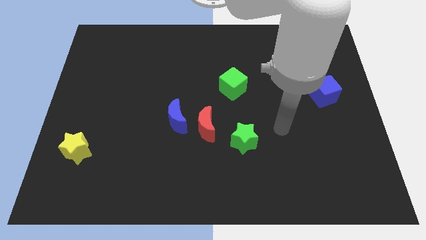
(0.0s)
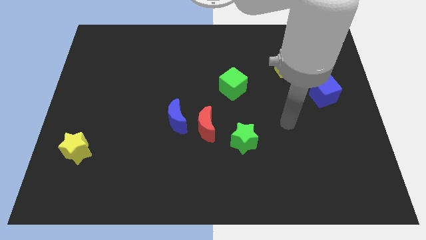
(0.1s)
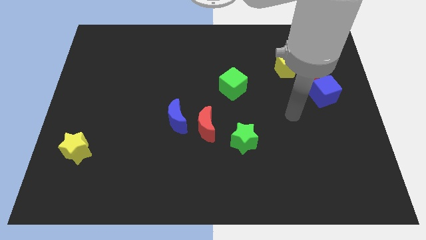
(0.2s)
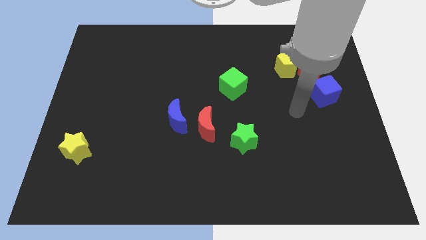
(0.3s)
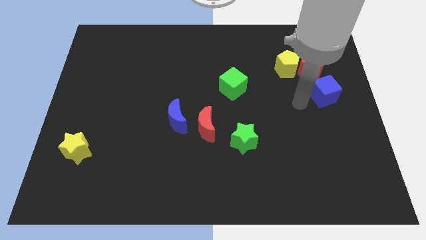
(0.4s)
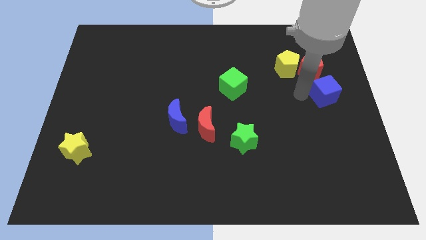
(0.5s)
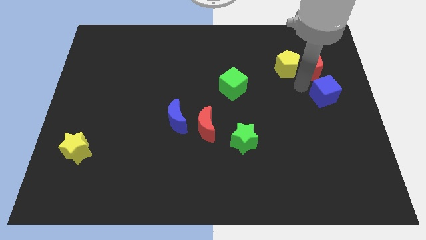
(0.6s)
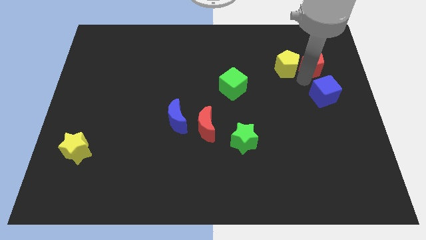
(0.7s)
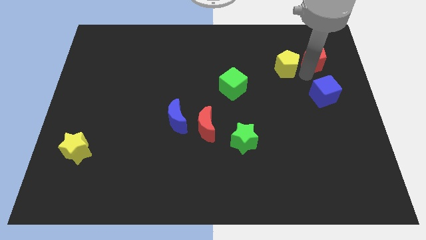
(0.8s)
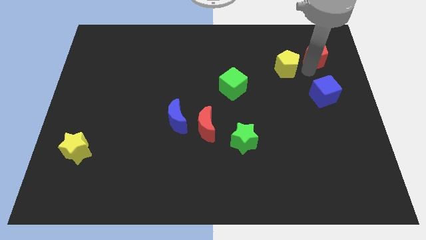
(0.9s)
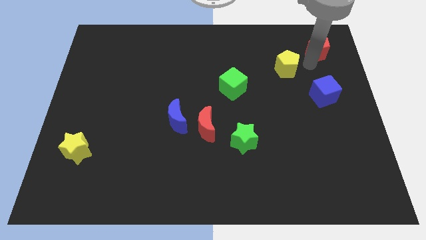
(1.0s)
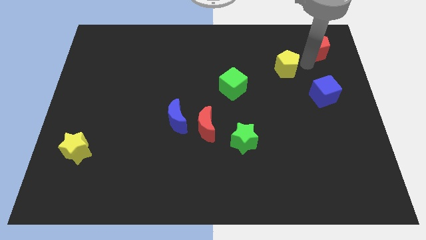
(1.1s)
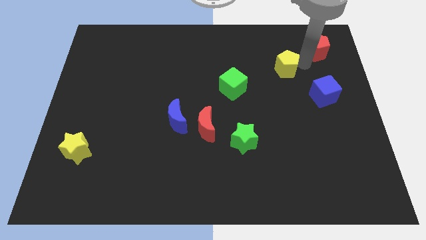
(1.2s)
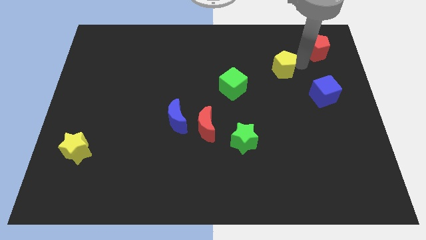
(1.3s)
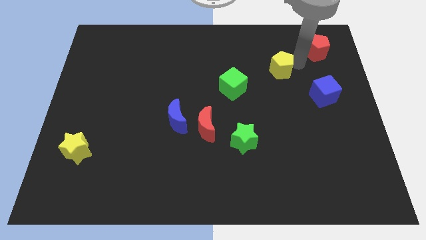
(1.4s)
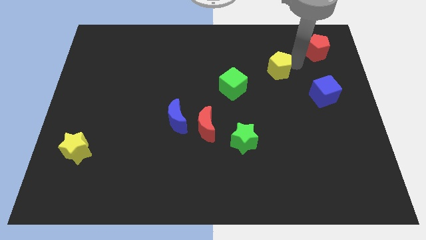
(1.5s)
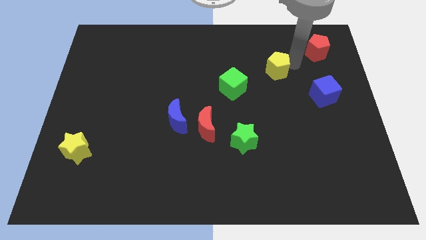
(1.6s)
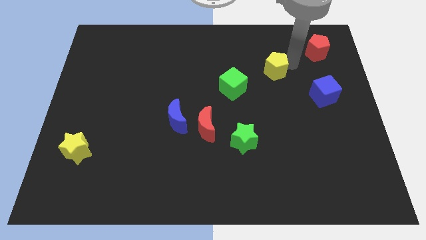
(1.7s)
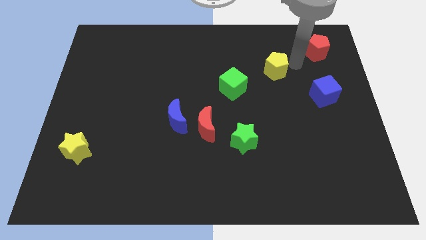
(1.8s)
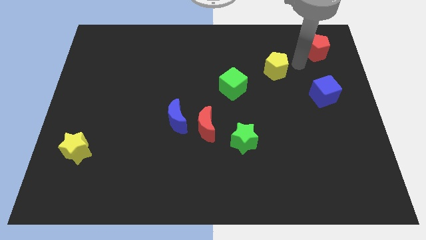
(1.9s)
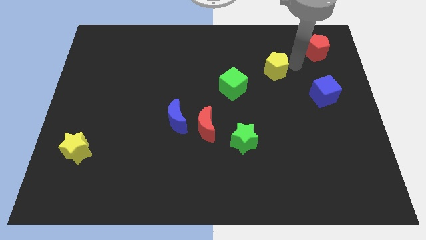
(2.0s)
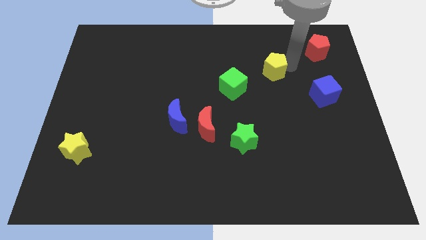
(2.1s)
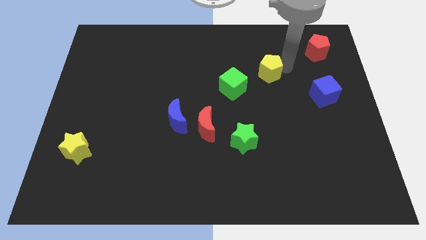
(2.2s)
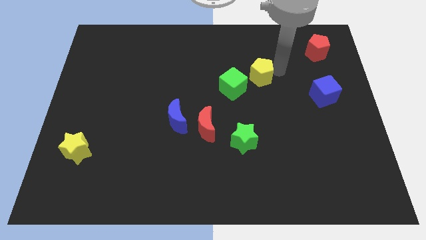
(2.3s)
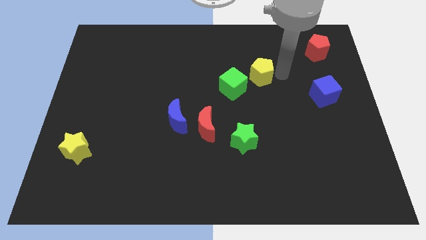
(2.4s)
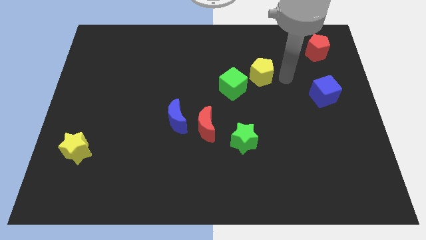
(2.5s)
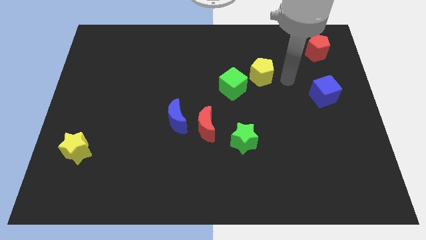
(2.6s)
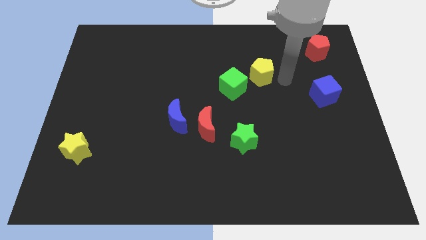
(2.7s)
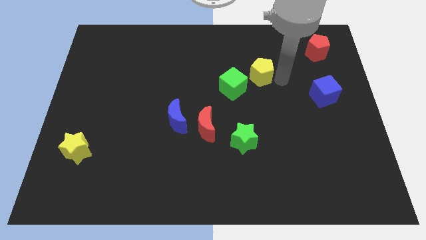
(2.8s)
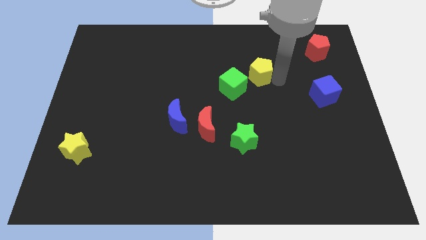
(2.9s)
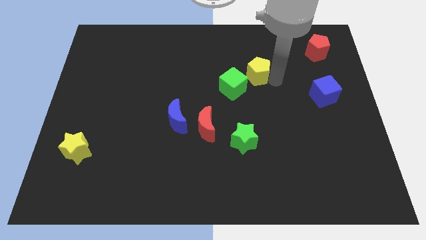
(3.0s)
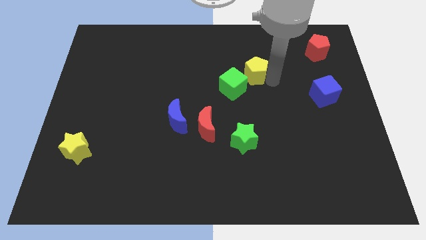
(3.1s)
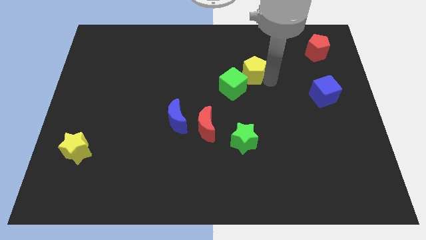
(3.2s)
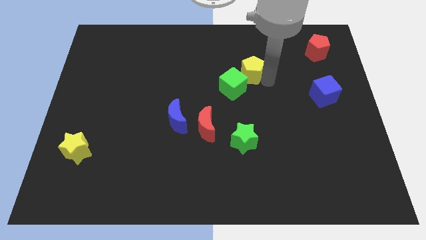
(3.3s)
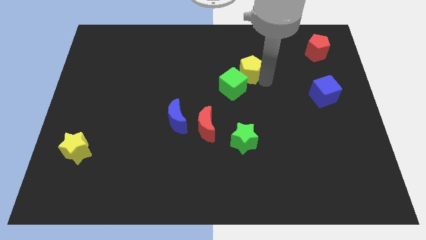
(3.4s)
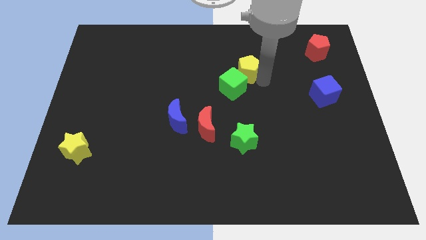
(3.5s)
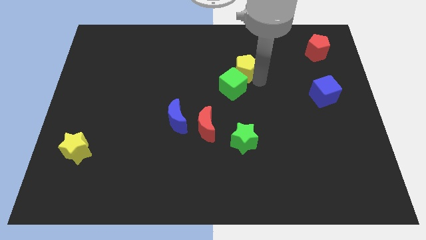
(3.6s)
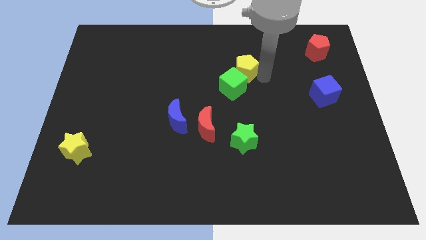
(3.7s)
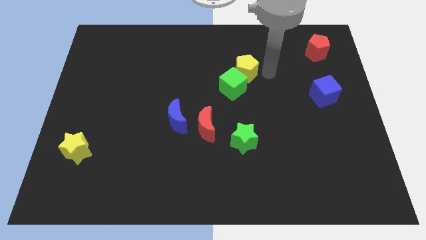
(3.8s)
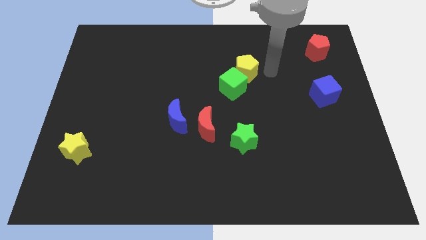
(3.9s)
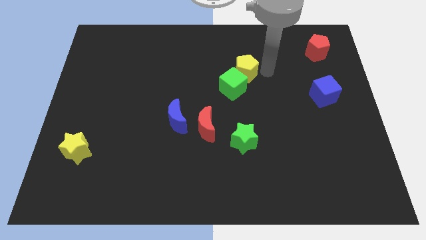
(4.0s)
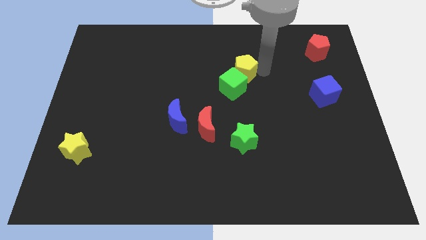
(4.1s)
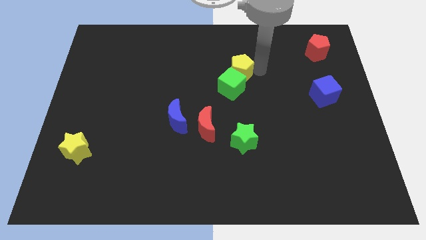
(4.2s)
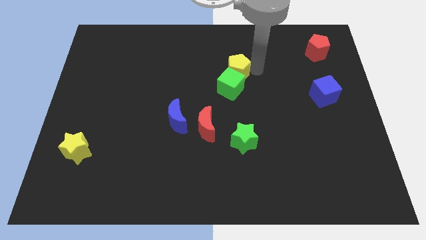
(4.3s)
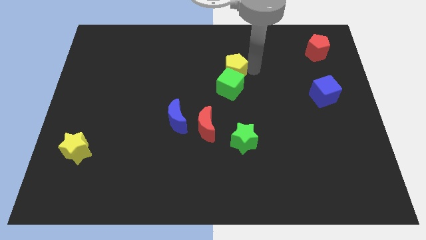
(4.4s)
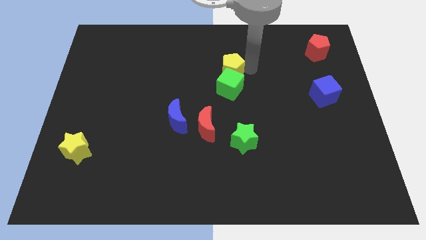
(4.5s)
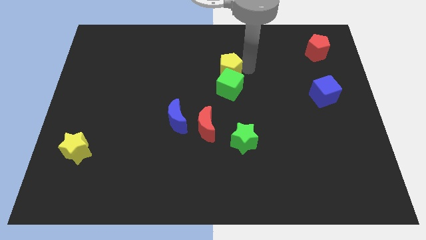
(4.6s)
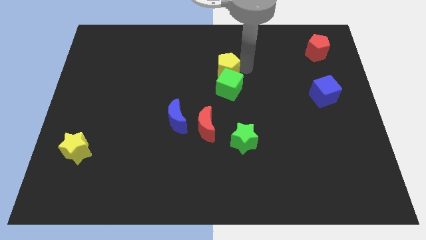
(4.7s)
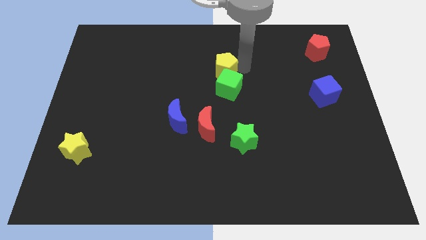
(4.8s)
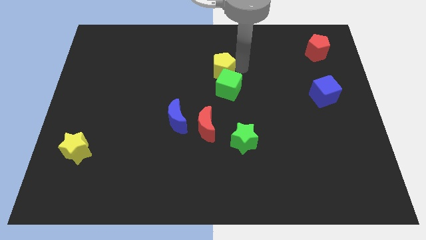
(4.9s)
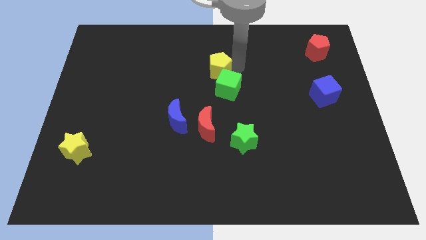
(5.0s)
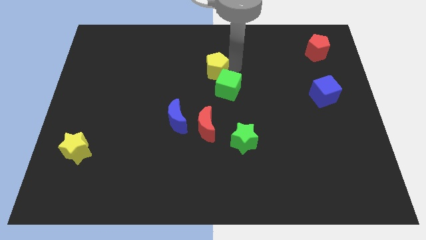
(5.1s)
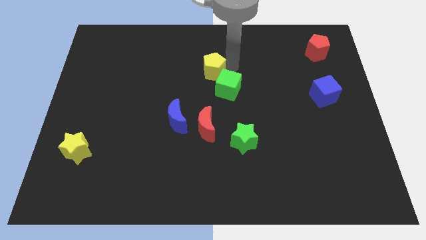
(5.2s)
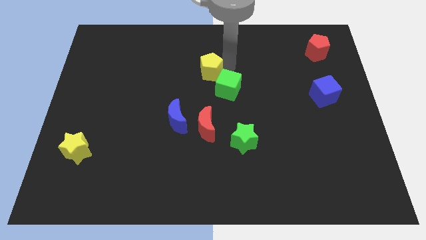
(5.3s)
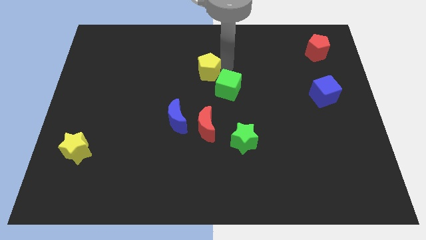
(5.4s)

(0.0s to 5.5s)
push the yellow pentagon left

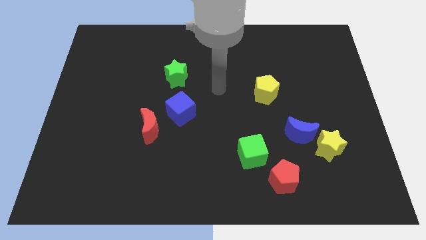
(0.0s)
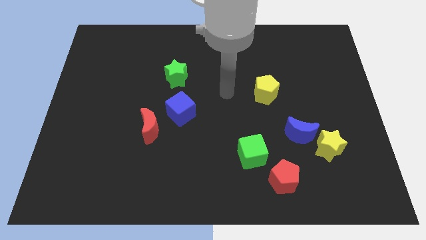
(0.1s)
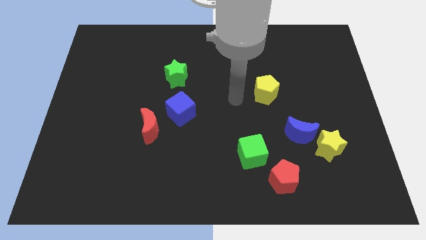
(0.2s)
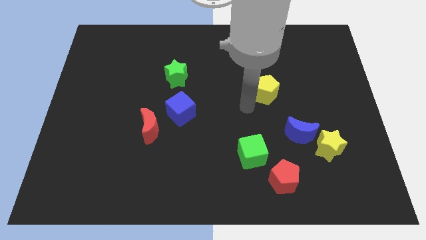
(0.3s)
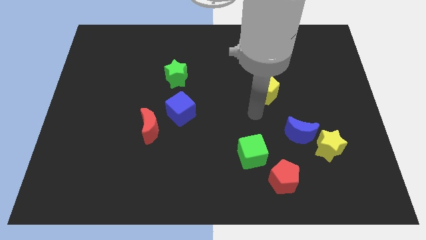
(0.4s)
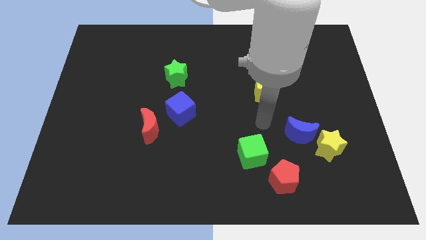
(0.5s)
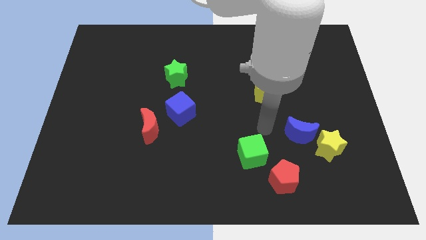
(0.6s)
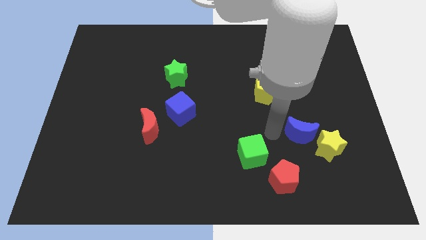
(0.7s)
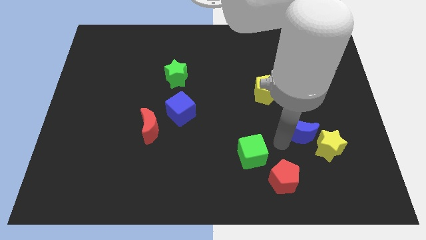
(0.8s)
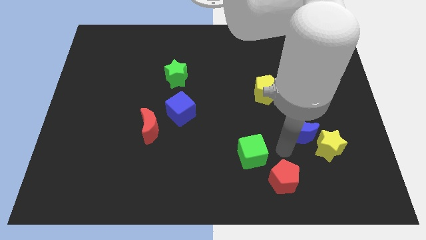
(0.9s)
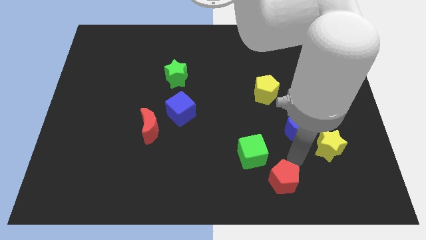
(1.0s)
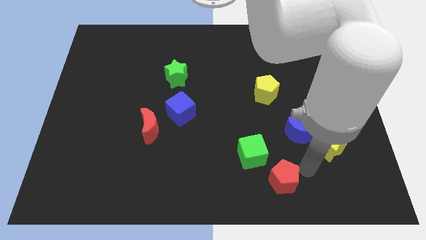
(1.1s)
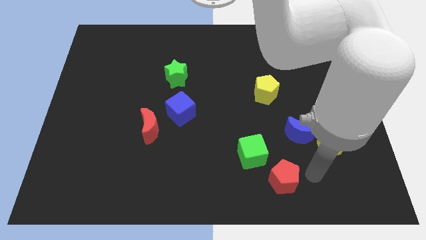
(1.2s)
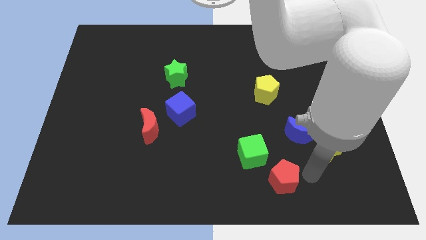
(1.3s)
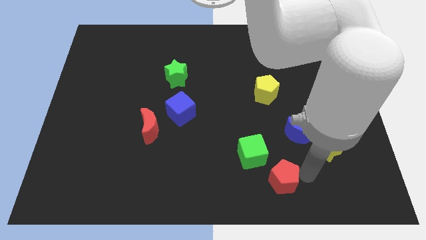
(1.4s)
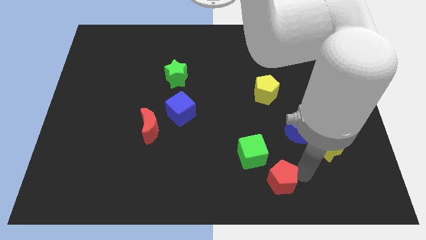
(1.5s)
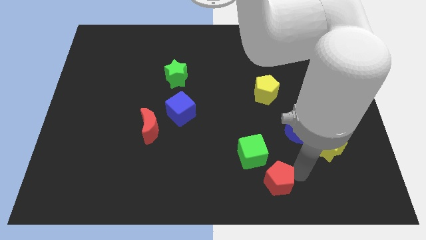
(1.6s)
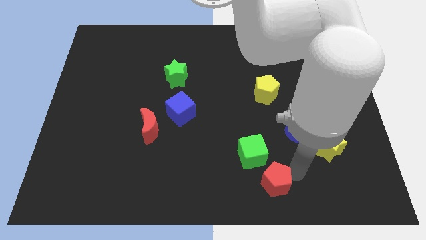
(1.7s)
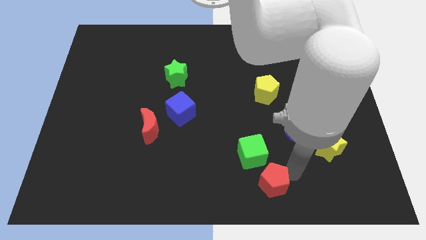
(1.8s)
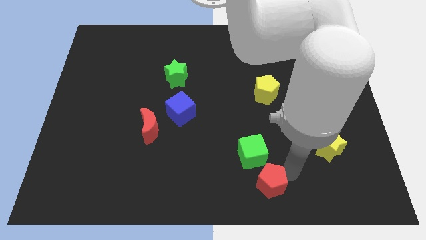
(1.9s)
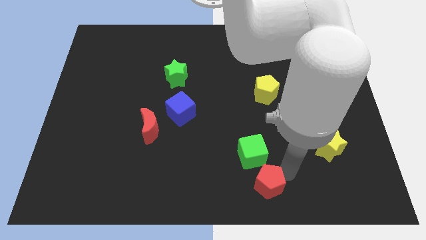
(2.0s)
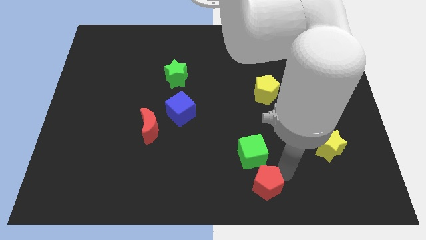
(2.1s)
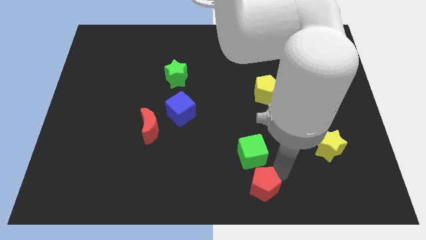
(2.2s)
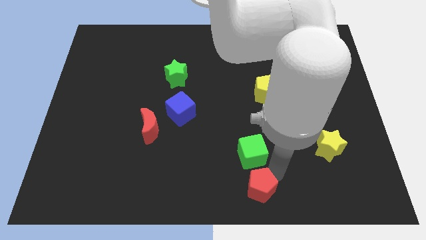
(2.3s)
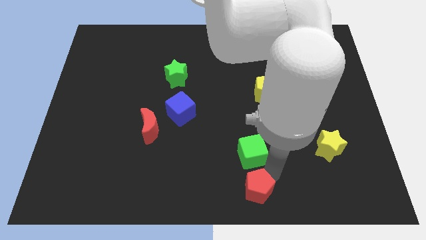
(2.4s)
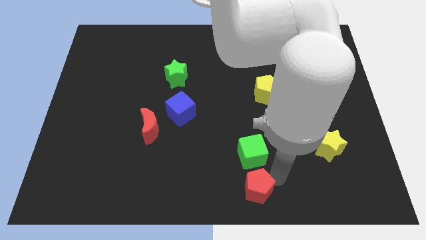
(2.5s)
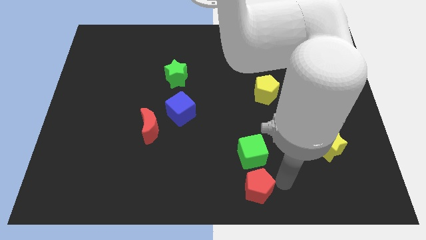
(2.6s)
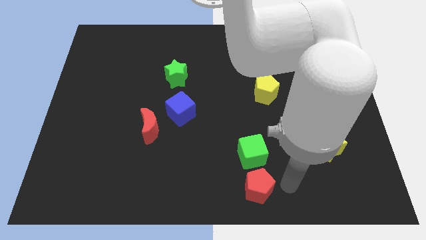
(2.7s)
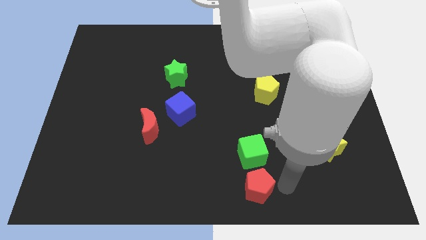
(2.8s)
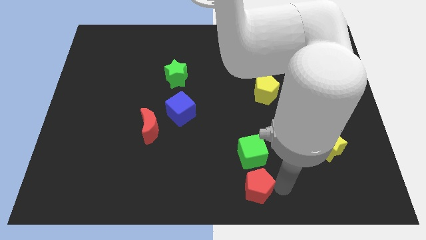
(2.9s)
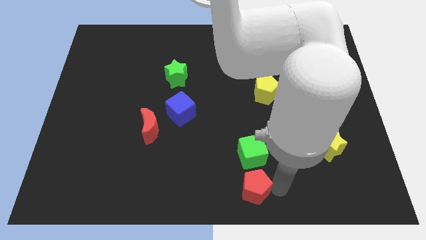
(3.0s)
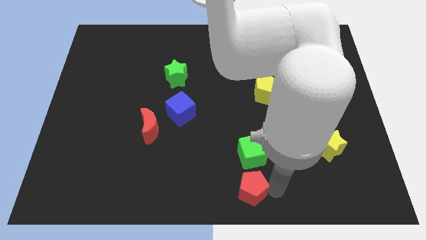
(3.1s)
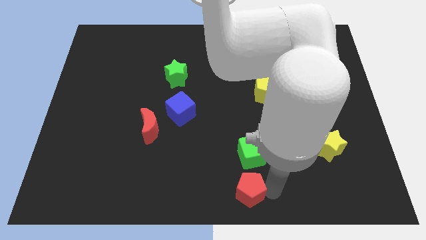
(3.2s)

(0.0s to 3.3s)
slide the red pentagon somewhat to the left
